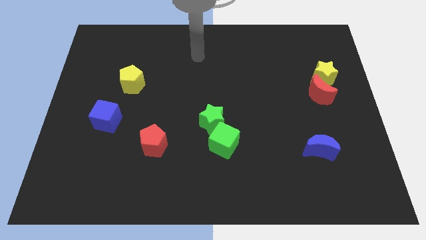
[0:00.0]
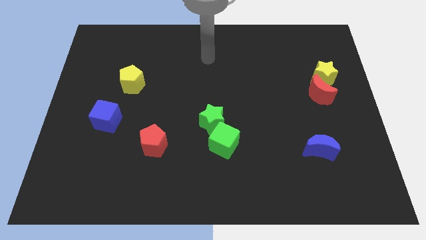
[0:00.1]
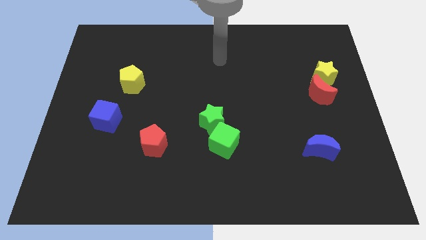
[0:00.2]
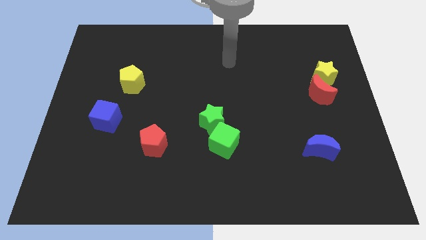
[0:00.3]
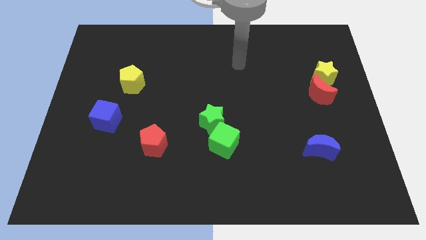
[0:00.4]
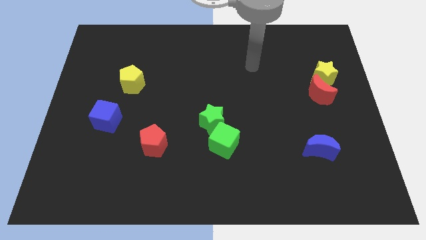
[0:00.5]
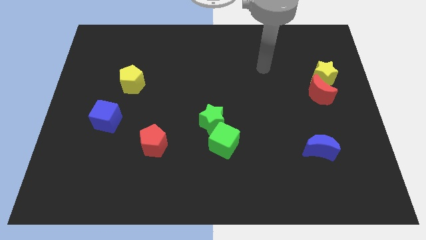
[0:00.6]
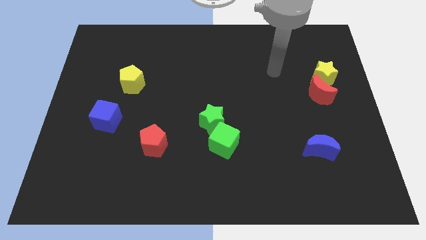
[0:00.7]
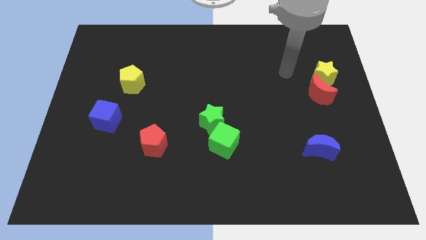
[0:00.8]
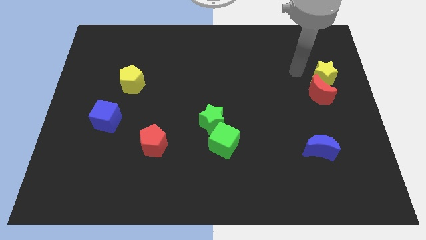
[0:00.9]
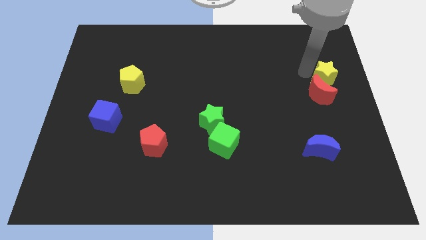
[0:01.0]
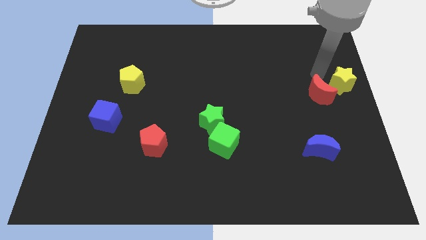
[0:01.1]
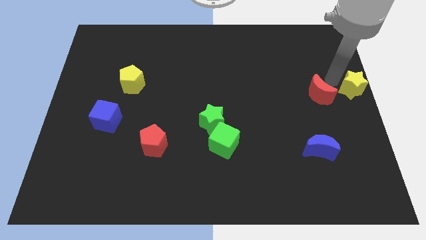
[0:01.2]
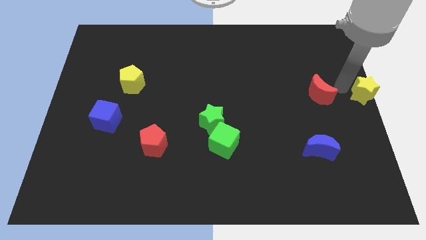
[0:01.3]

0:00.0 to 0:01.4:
move the red moon away from the yellow star

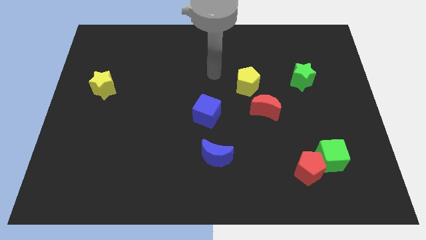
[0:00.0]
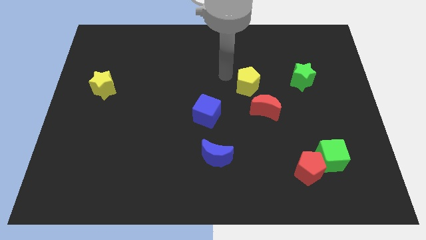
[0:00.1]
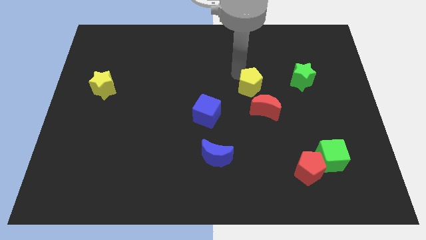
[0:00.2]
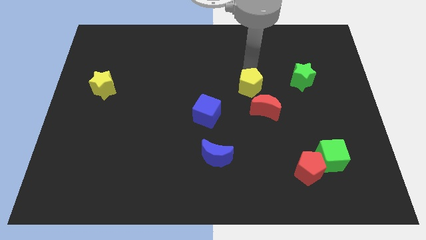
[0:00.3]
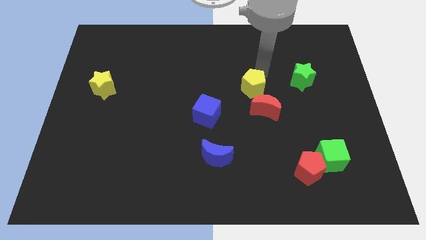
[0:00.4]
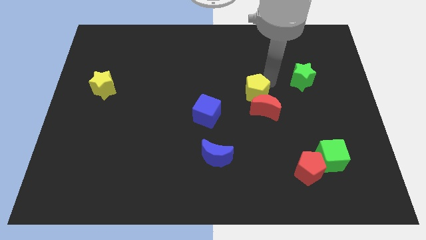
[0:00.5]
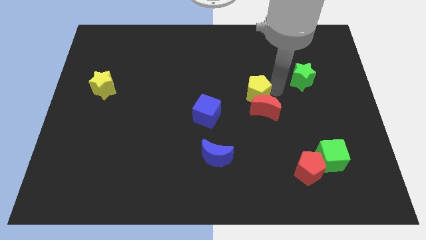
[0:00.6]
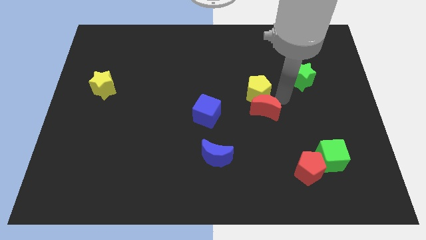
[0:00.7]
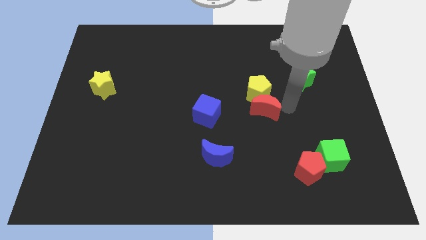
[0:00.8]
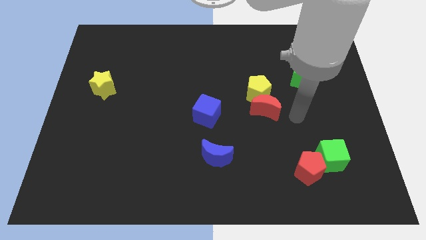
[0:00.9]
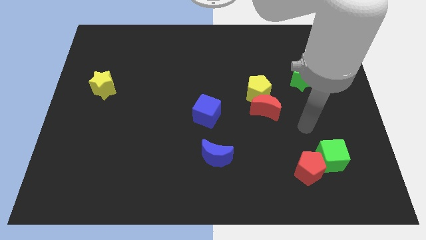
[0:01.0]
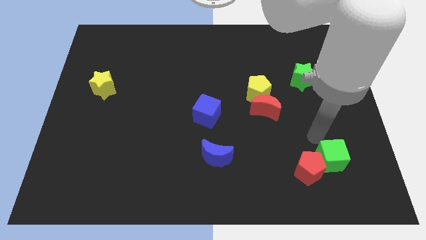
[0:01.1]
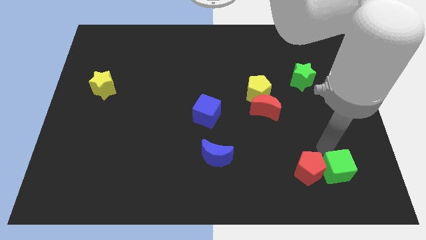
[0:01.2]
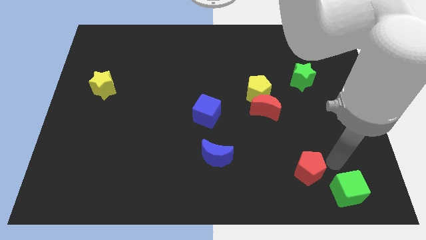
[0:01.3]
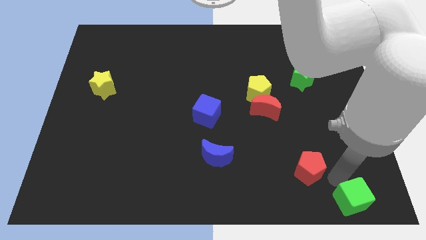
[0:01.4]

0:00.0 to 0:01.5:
move the red pentagon away from the green cube

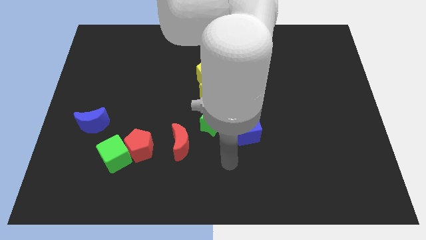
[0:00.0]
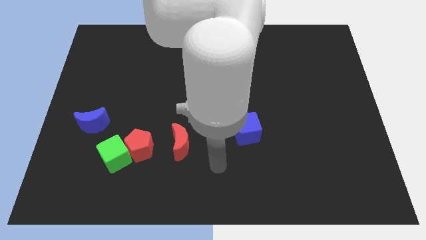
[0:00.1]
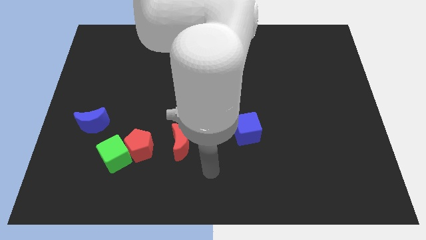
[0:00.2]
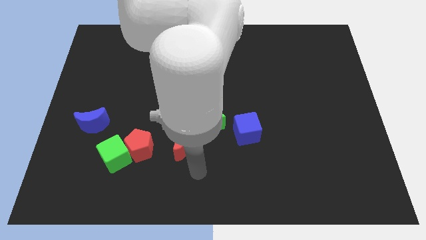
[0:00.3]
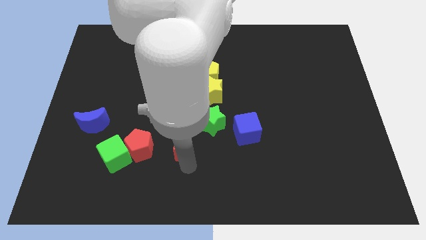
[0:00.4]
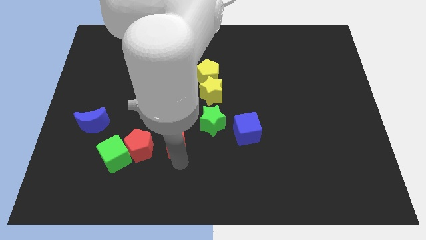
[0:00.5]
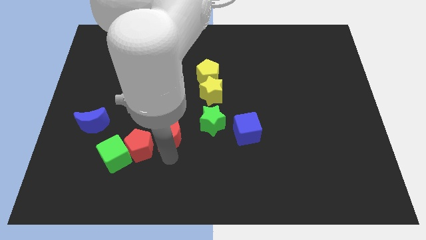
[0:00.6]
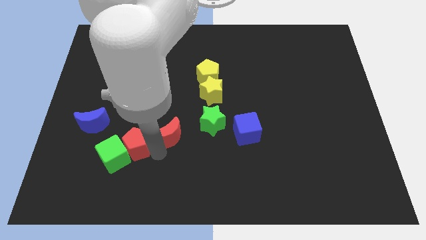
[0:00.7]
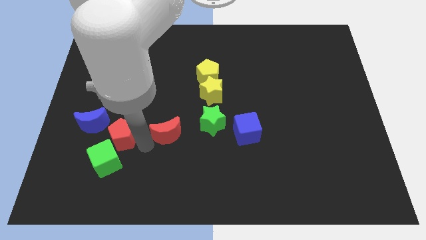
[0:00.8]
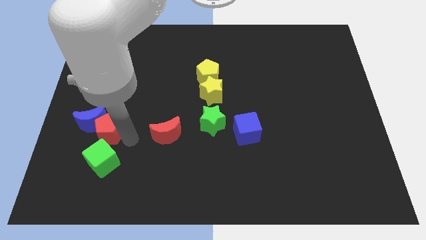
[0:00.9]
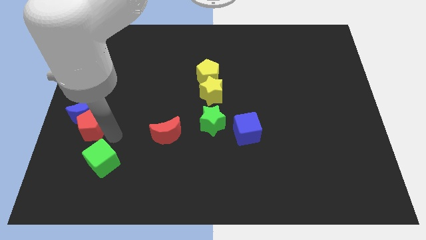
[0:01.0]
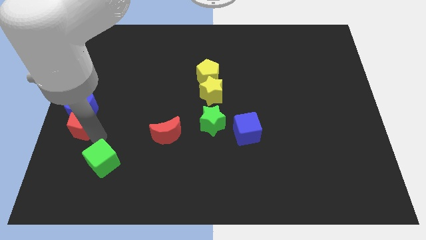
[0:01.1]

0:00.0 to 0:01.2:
separate the green cube from the red pentagon

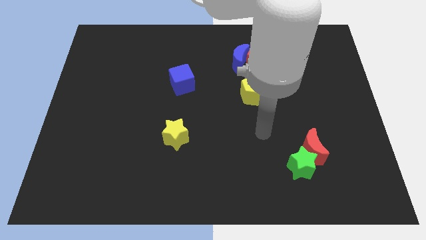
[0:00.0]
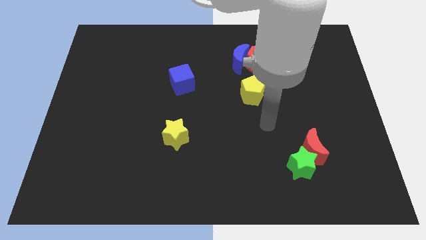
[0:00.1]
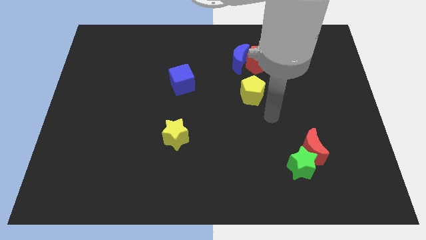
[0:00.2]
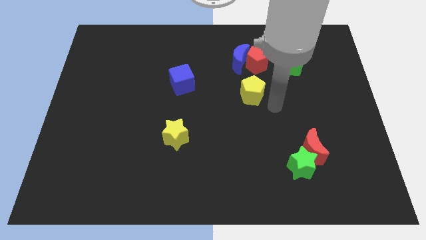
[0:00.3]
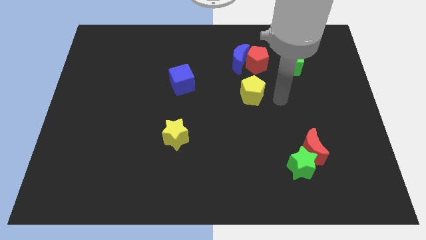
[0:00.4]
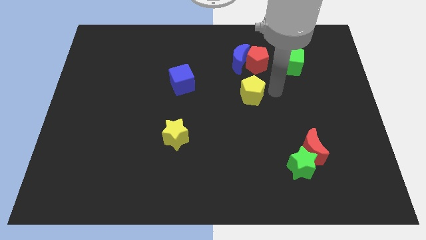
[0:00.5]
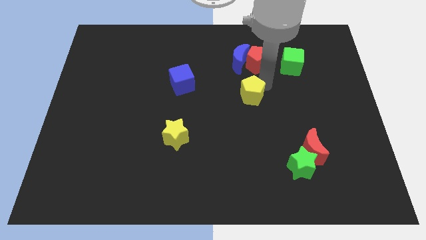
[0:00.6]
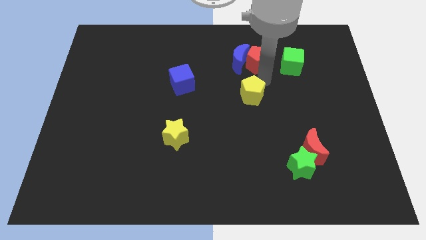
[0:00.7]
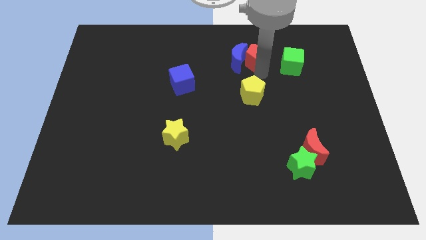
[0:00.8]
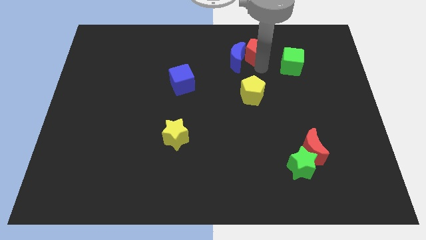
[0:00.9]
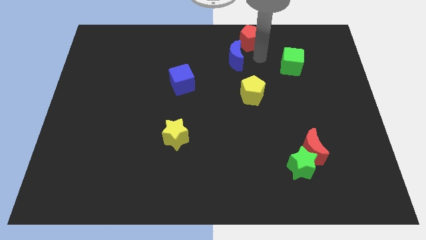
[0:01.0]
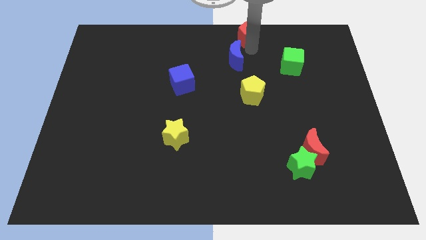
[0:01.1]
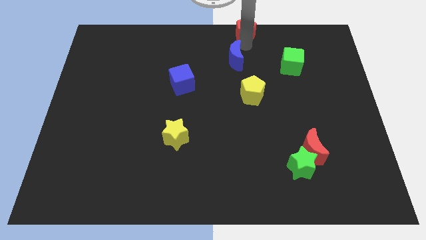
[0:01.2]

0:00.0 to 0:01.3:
move the blue moon away from the red pentagon

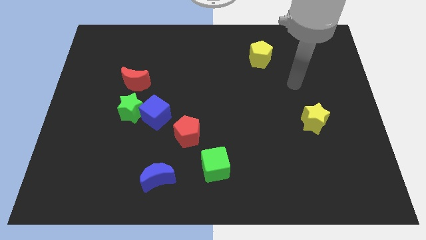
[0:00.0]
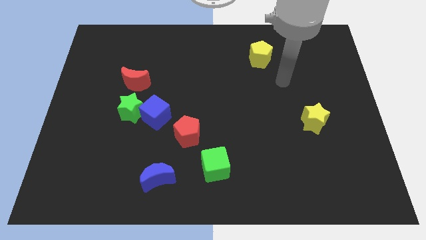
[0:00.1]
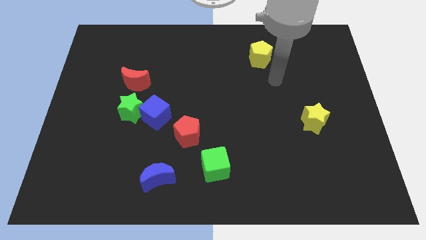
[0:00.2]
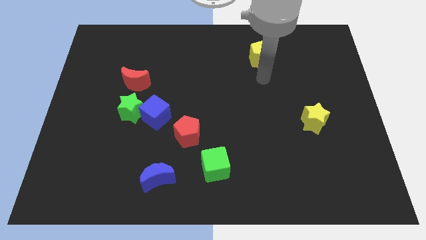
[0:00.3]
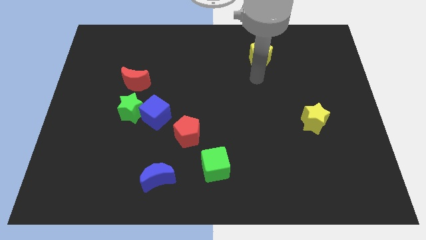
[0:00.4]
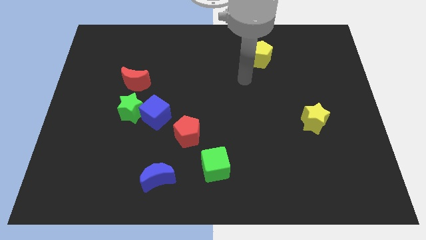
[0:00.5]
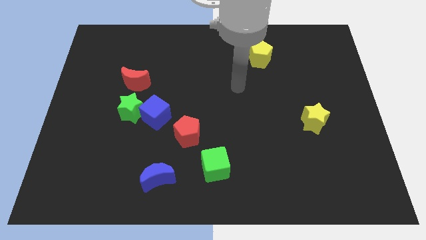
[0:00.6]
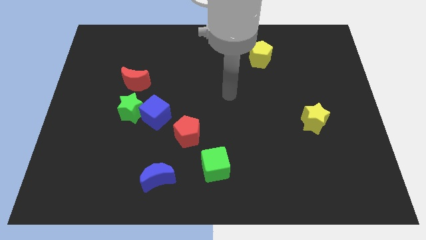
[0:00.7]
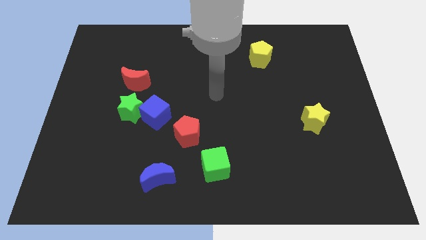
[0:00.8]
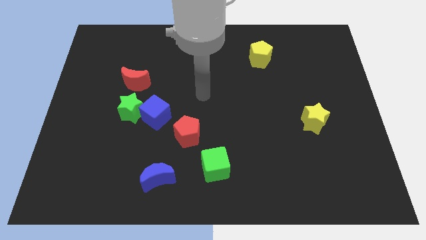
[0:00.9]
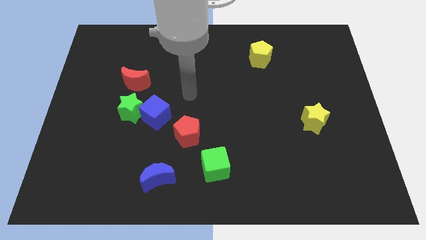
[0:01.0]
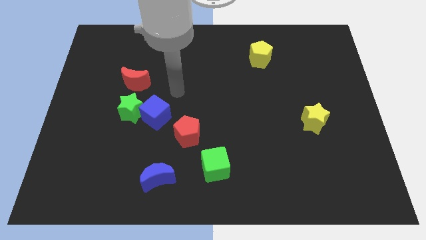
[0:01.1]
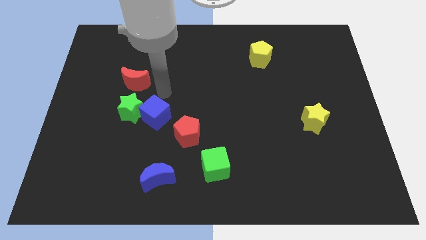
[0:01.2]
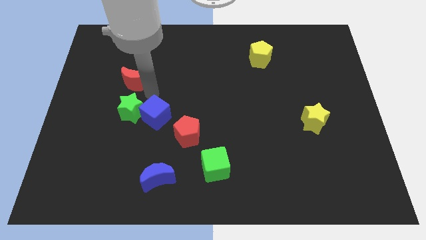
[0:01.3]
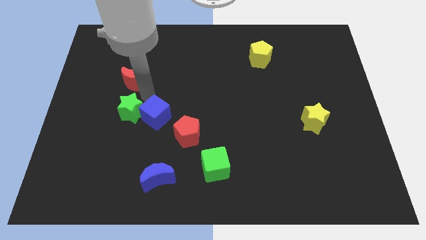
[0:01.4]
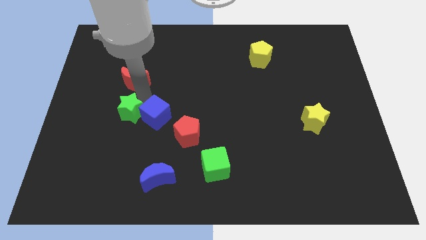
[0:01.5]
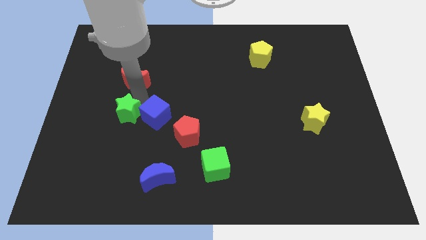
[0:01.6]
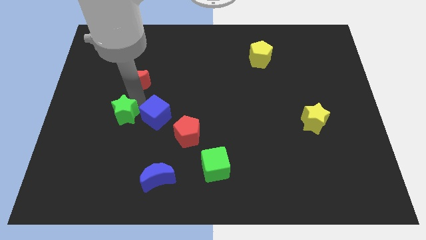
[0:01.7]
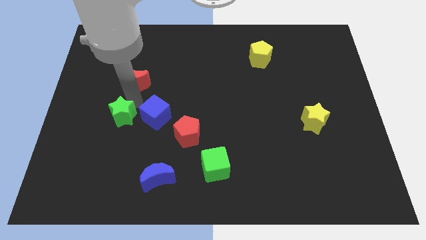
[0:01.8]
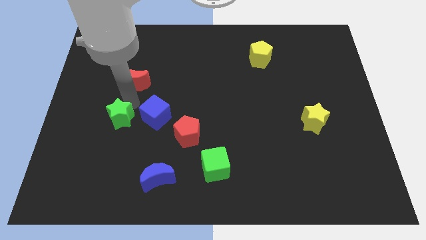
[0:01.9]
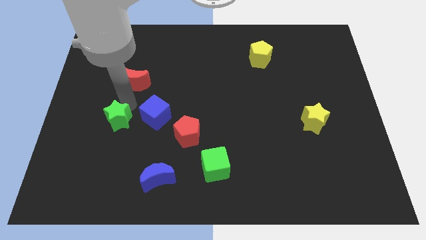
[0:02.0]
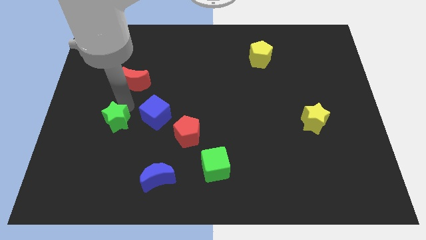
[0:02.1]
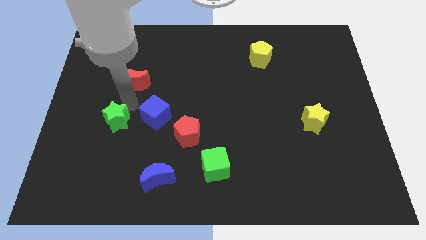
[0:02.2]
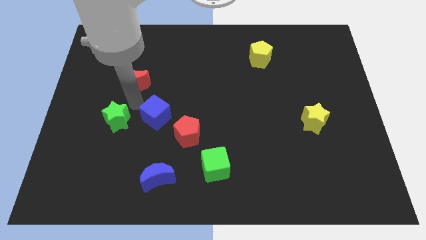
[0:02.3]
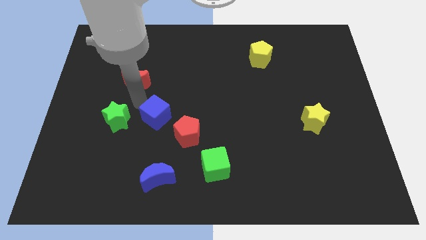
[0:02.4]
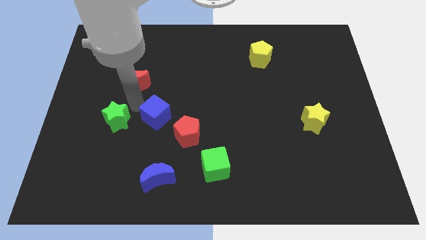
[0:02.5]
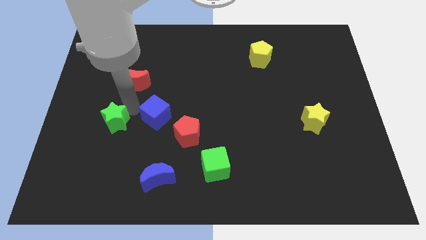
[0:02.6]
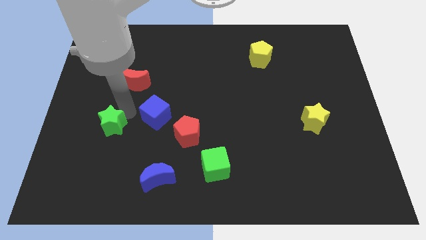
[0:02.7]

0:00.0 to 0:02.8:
move the green star away from the blue cube and red moon

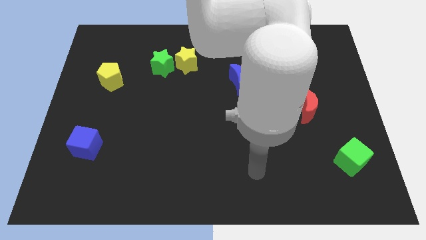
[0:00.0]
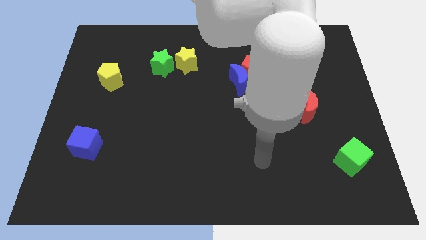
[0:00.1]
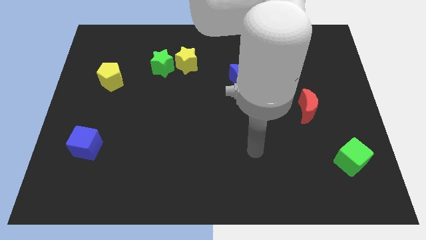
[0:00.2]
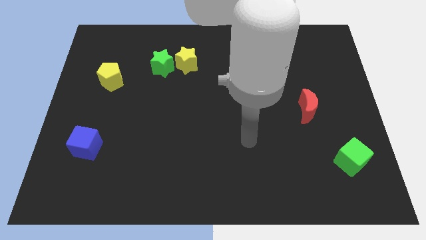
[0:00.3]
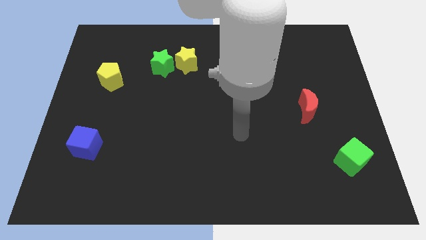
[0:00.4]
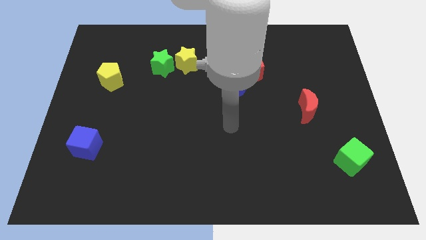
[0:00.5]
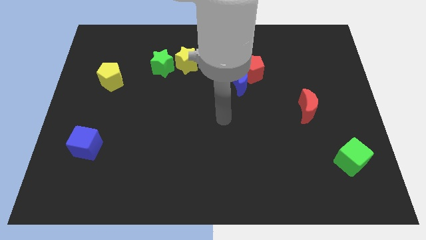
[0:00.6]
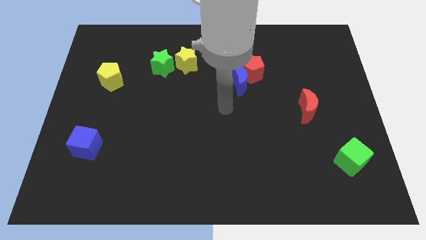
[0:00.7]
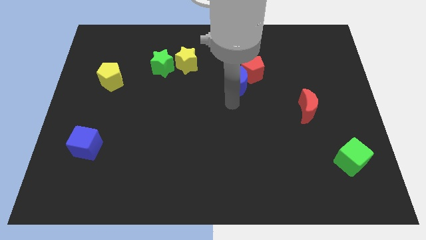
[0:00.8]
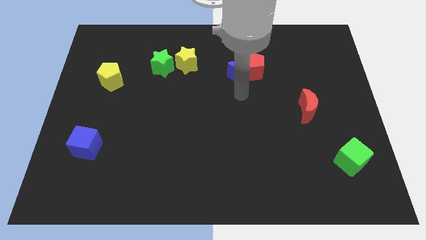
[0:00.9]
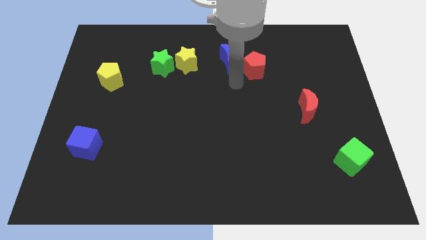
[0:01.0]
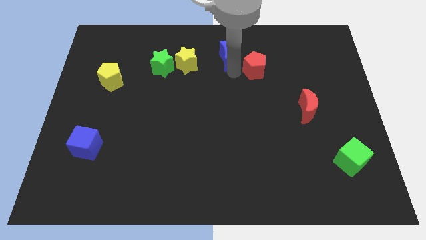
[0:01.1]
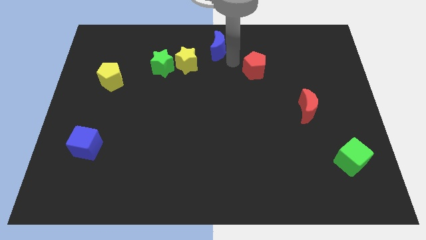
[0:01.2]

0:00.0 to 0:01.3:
separate the red pentagon from the blue moon
